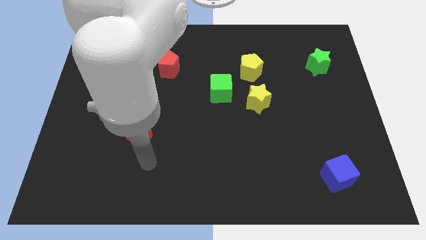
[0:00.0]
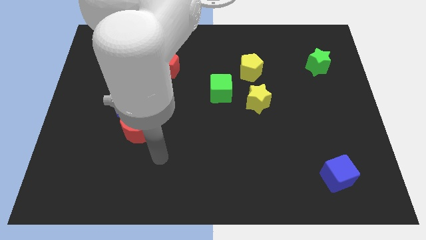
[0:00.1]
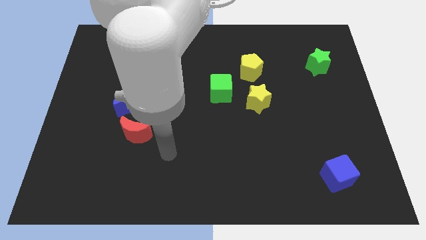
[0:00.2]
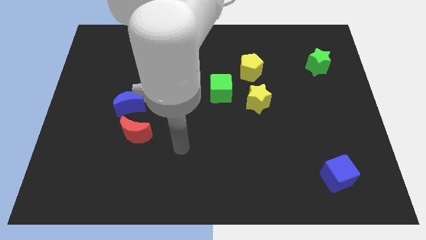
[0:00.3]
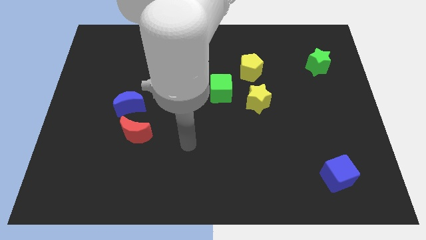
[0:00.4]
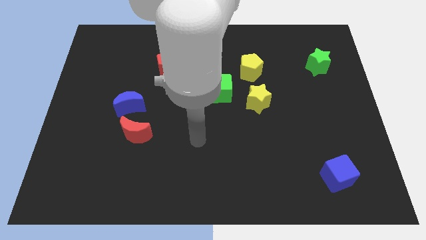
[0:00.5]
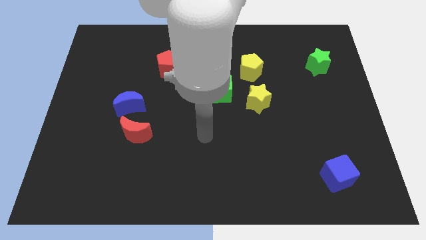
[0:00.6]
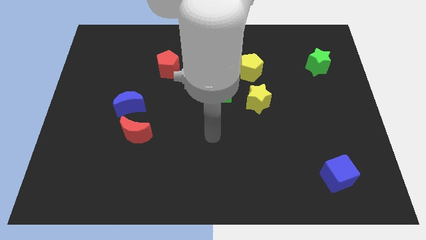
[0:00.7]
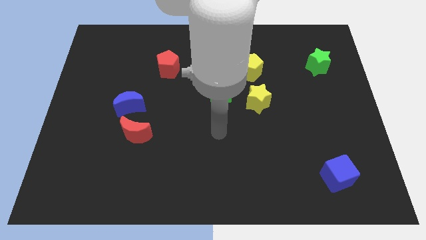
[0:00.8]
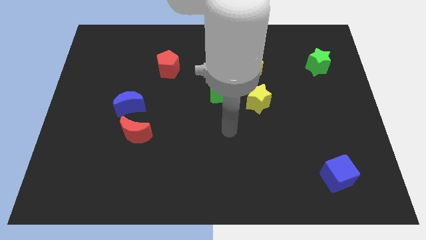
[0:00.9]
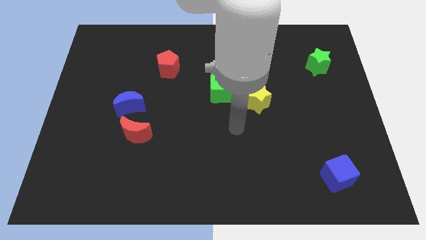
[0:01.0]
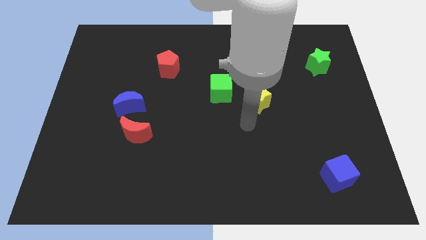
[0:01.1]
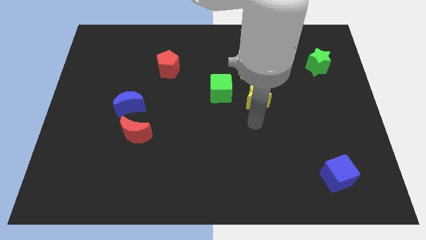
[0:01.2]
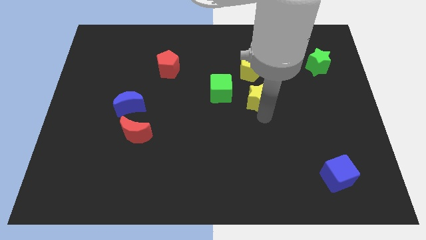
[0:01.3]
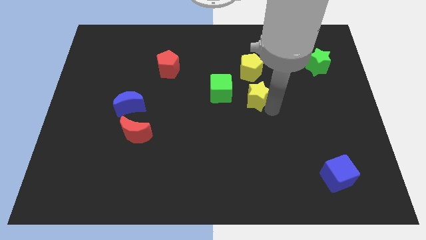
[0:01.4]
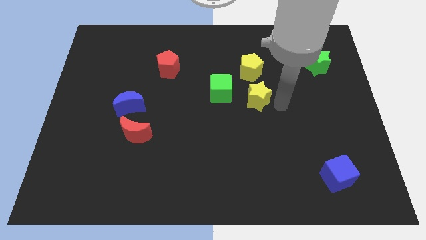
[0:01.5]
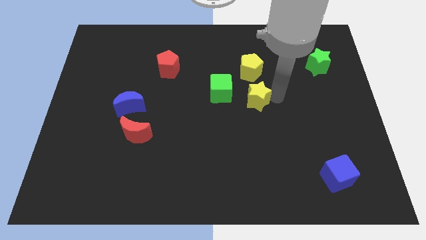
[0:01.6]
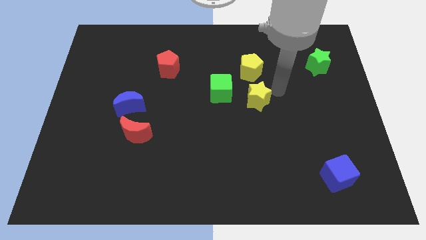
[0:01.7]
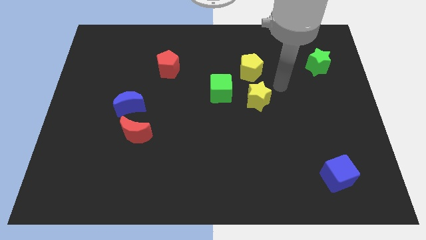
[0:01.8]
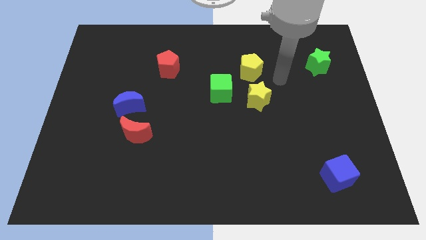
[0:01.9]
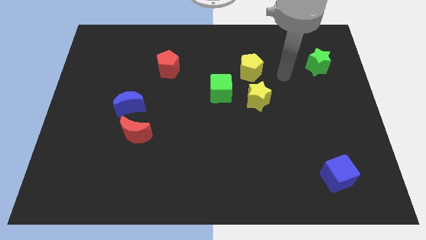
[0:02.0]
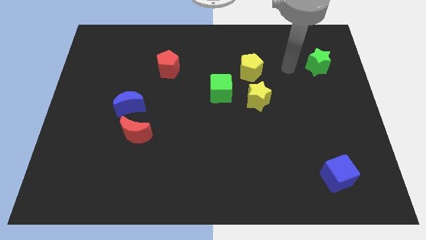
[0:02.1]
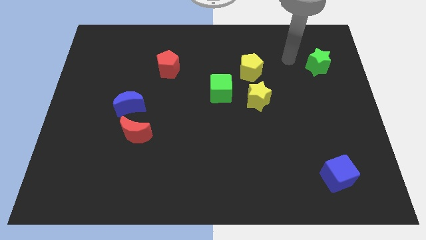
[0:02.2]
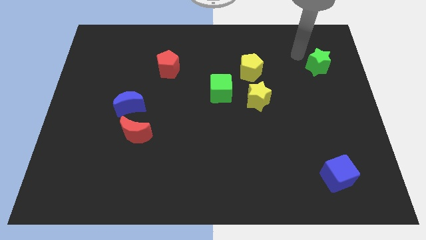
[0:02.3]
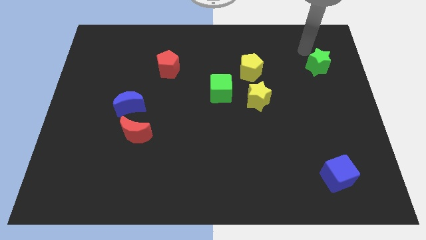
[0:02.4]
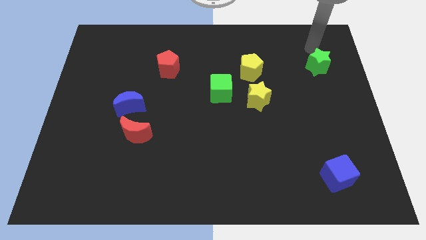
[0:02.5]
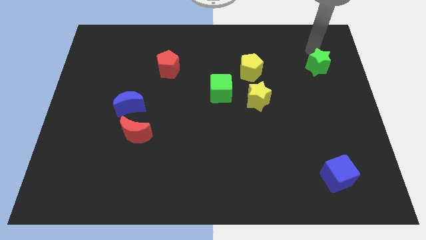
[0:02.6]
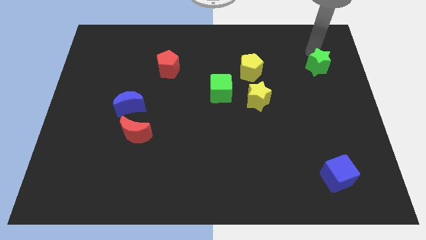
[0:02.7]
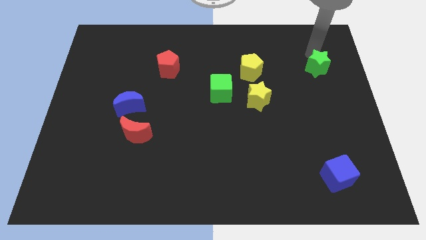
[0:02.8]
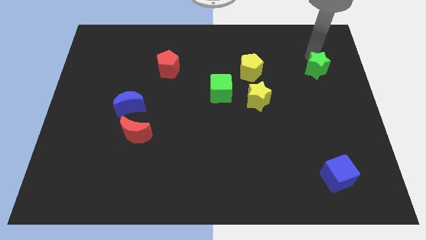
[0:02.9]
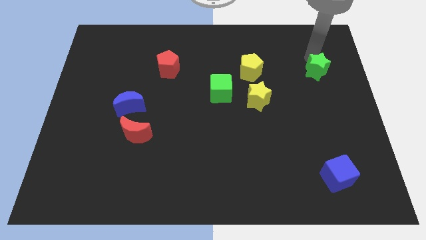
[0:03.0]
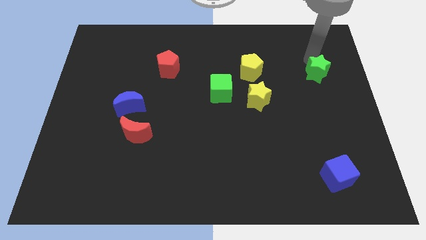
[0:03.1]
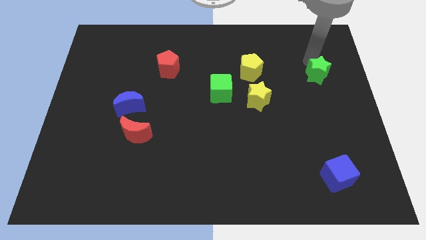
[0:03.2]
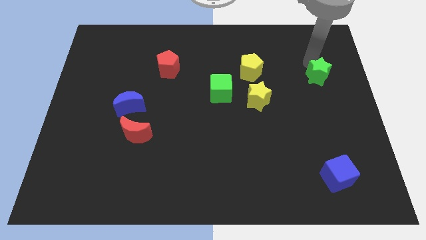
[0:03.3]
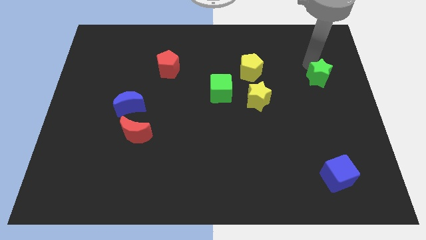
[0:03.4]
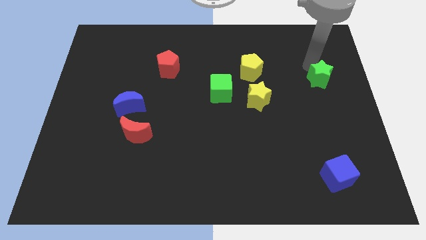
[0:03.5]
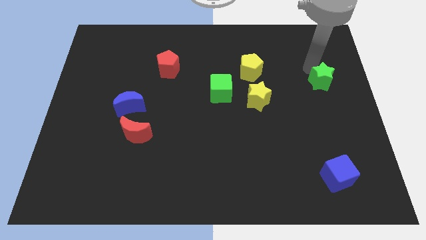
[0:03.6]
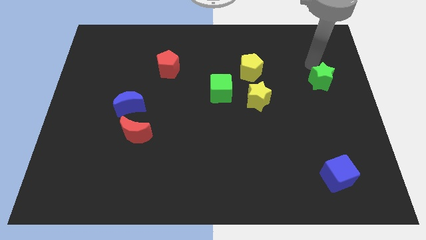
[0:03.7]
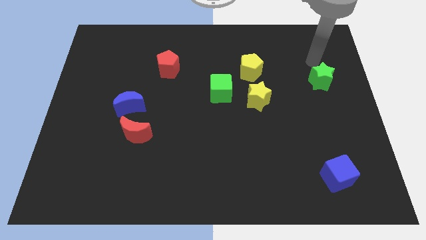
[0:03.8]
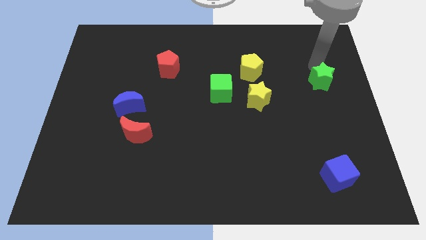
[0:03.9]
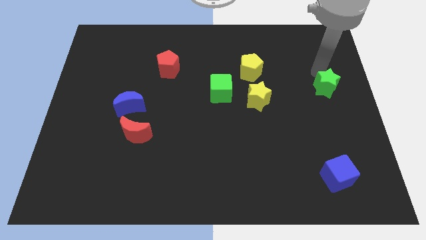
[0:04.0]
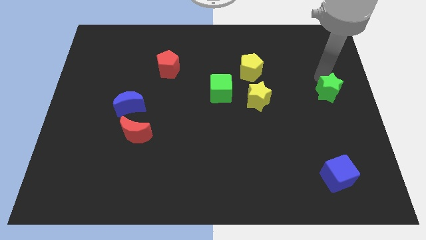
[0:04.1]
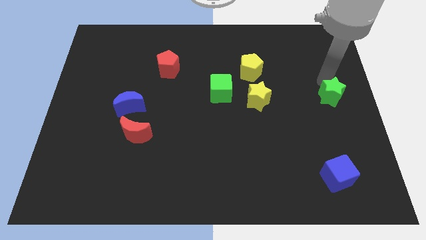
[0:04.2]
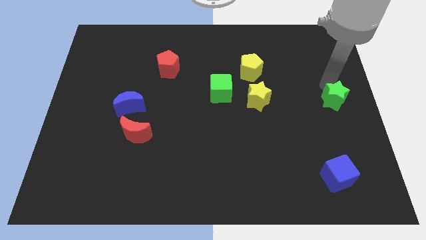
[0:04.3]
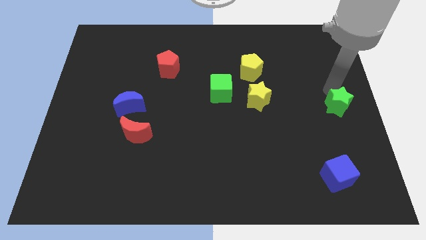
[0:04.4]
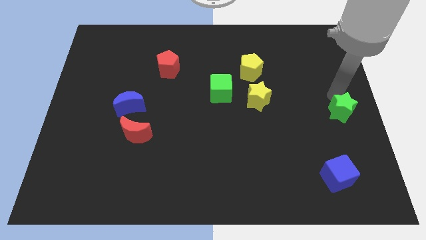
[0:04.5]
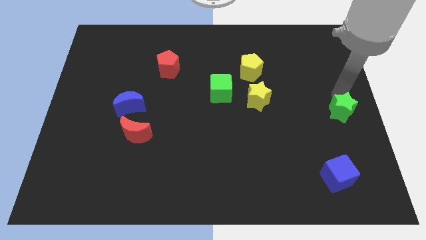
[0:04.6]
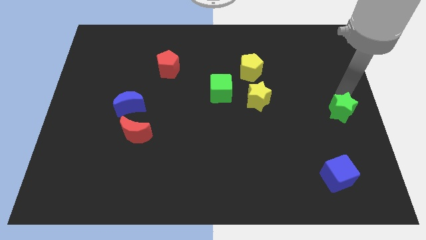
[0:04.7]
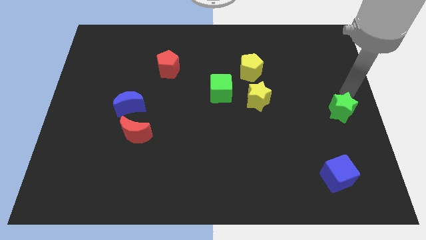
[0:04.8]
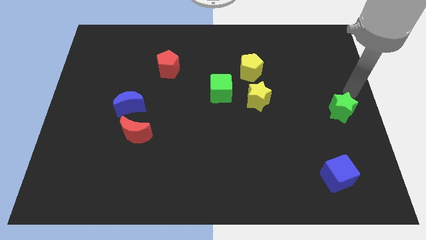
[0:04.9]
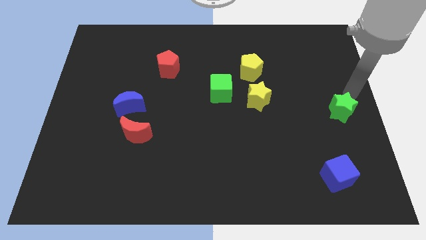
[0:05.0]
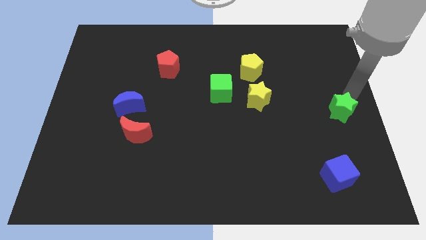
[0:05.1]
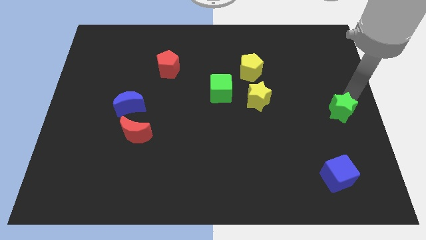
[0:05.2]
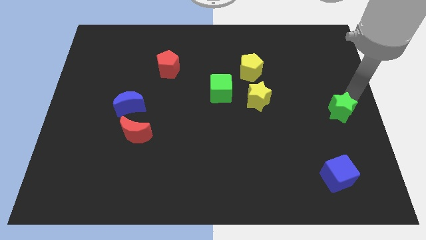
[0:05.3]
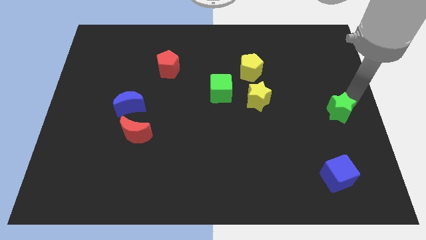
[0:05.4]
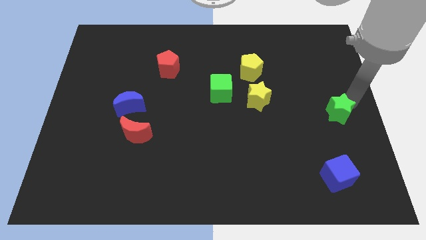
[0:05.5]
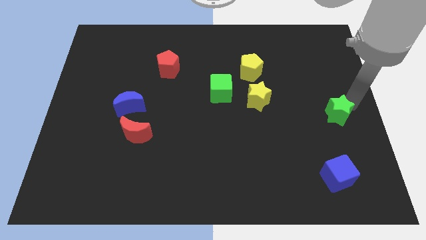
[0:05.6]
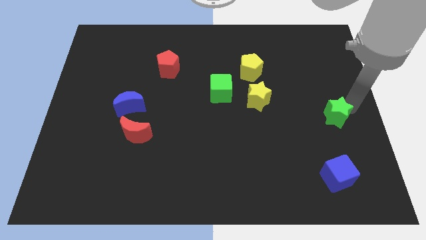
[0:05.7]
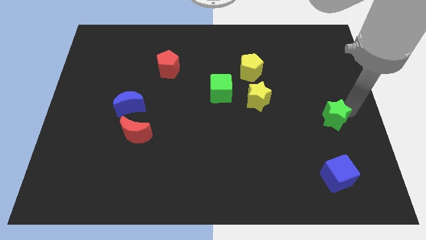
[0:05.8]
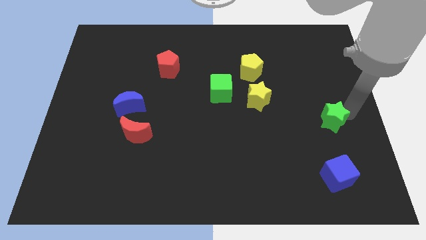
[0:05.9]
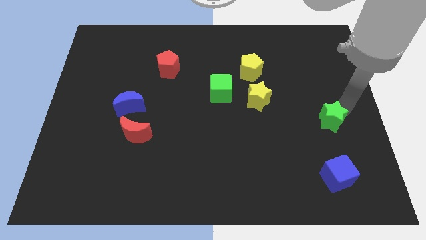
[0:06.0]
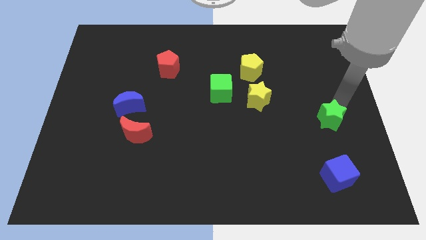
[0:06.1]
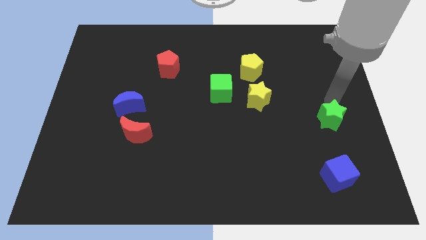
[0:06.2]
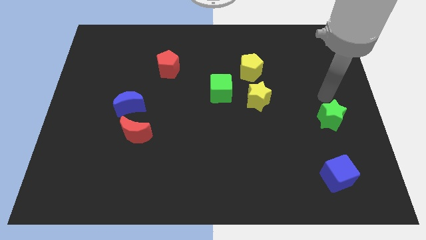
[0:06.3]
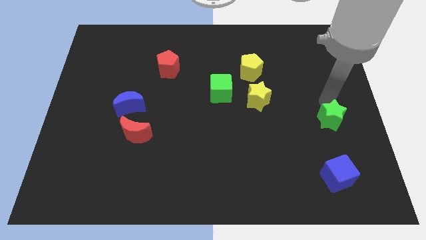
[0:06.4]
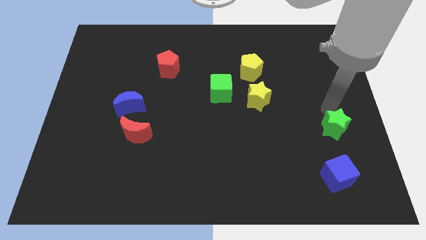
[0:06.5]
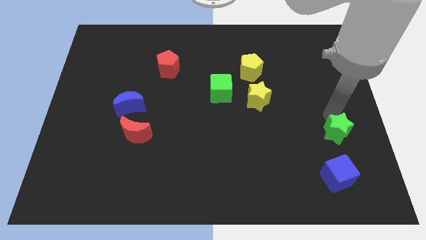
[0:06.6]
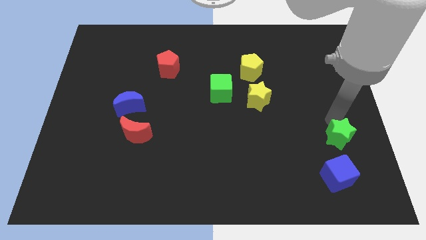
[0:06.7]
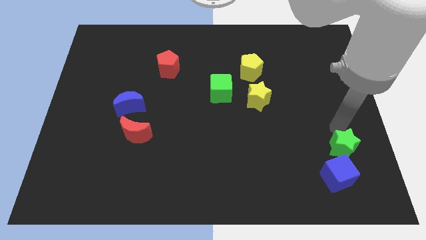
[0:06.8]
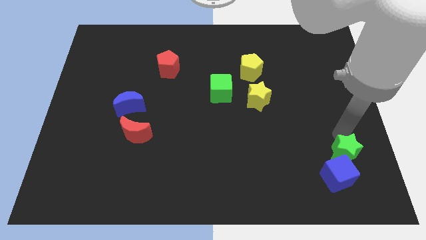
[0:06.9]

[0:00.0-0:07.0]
move the green star next to the blue cube

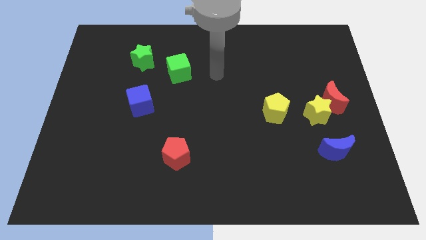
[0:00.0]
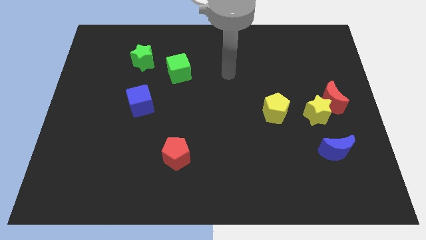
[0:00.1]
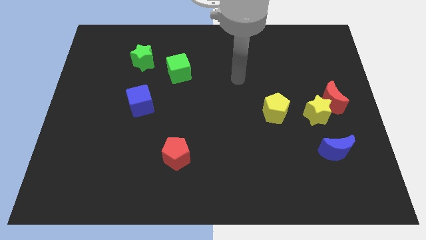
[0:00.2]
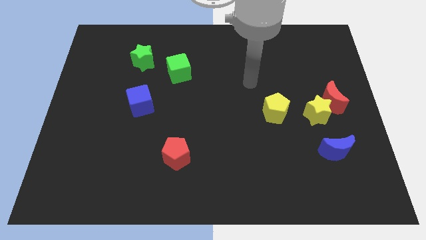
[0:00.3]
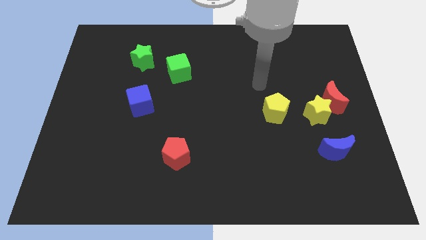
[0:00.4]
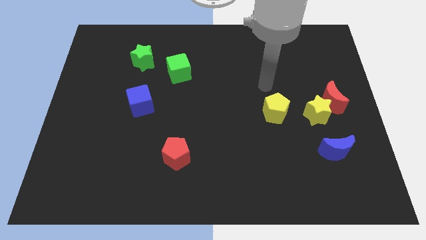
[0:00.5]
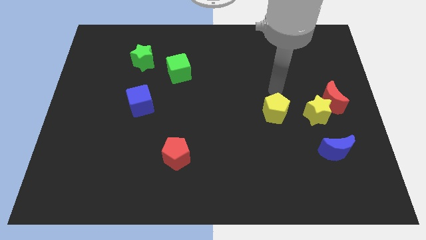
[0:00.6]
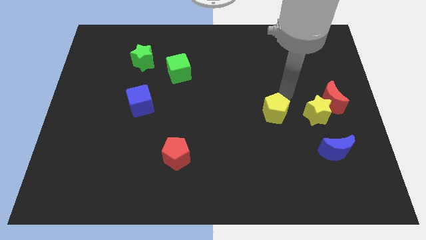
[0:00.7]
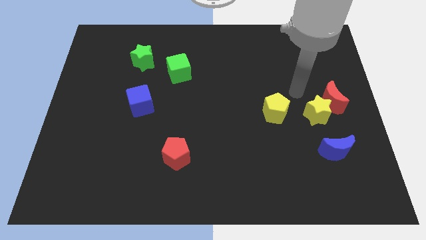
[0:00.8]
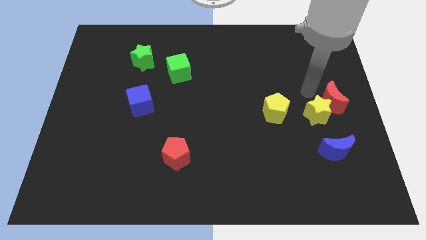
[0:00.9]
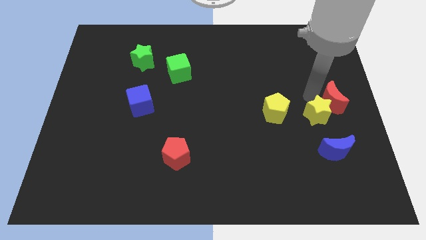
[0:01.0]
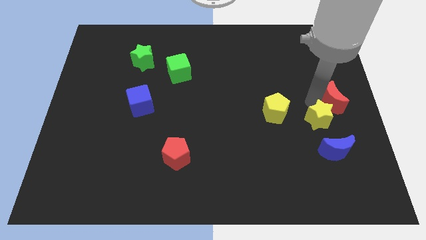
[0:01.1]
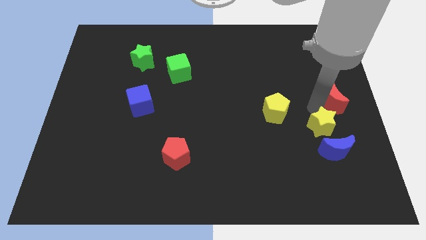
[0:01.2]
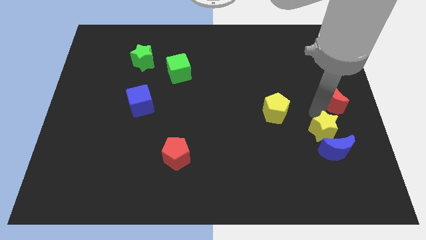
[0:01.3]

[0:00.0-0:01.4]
slide the yellow star to the blue moon
